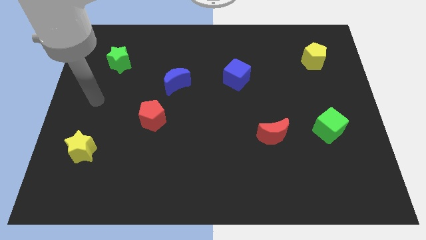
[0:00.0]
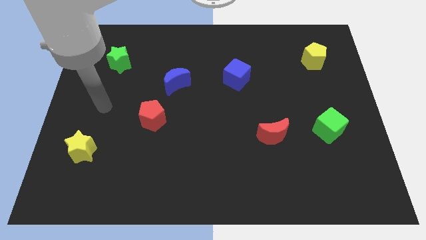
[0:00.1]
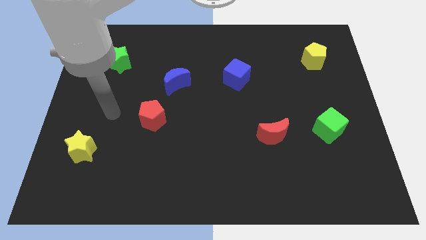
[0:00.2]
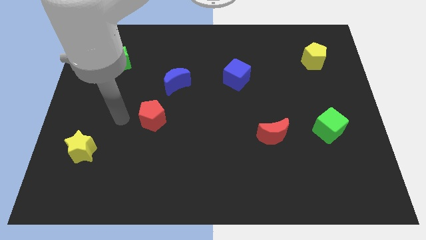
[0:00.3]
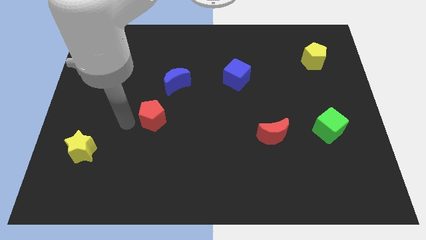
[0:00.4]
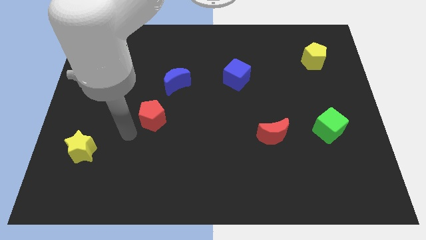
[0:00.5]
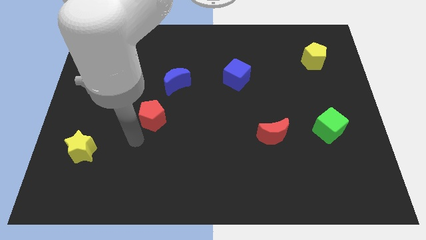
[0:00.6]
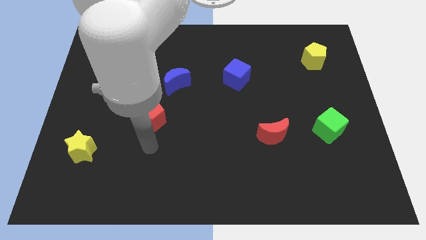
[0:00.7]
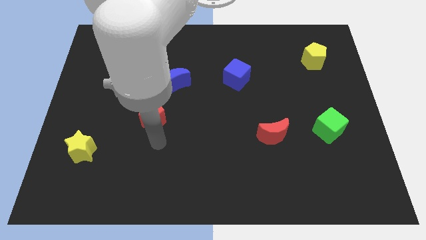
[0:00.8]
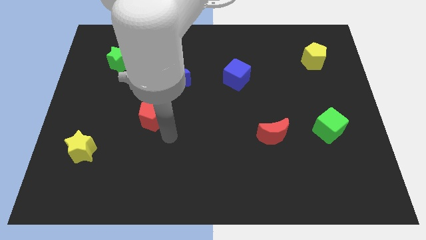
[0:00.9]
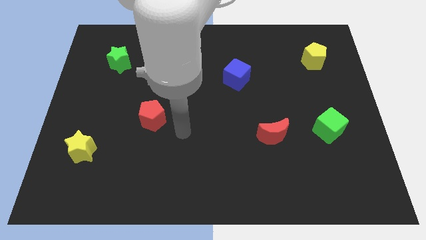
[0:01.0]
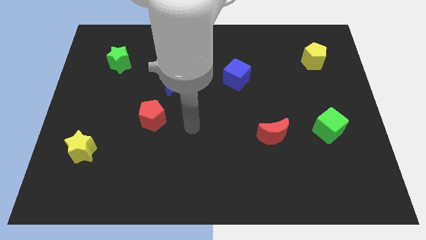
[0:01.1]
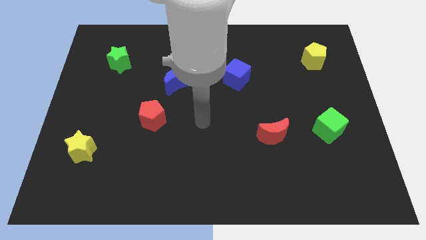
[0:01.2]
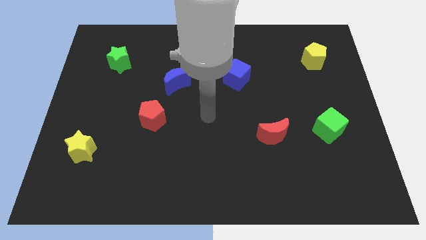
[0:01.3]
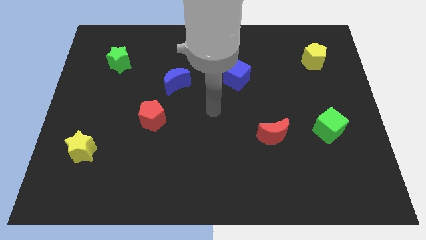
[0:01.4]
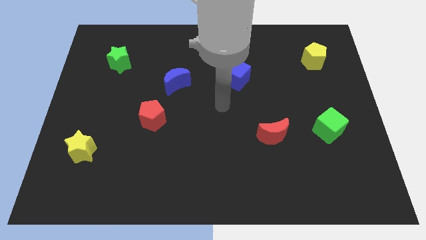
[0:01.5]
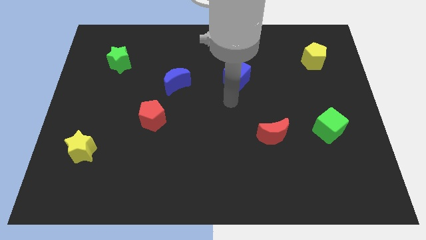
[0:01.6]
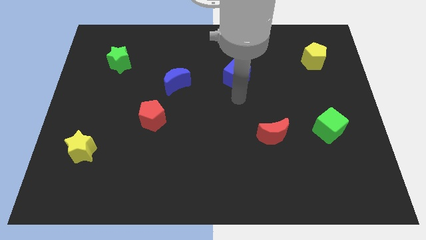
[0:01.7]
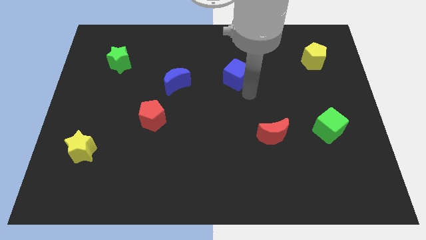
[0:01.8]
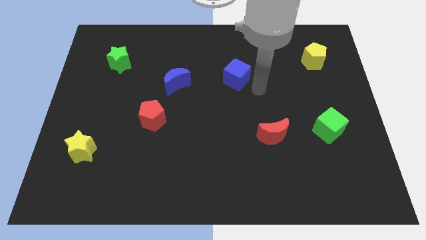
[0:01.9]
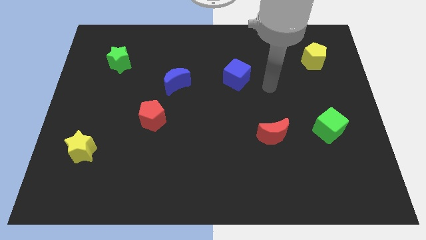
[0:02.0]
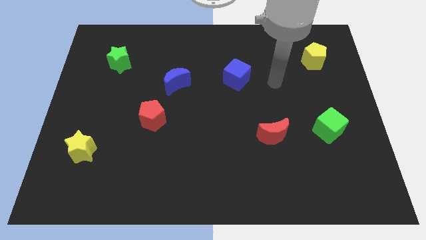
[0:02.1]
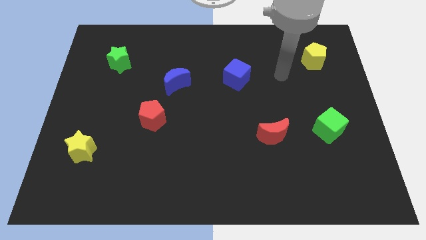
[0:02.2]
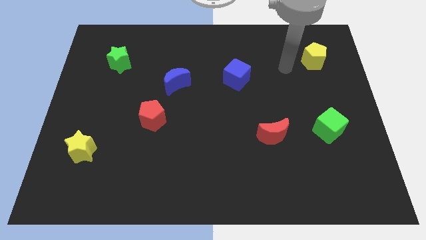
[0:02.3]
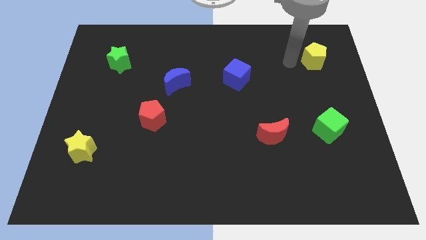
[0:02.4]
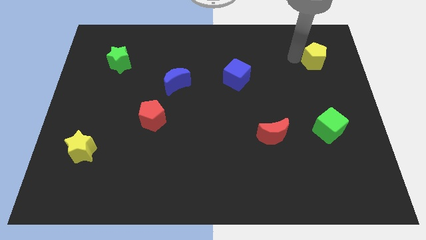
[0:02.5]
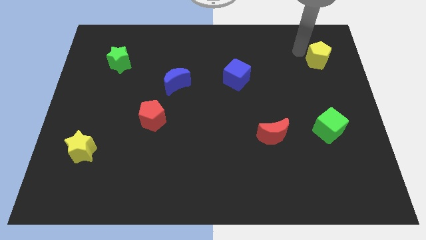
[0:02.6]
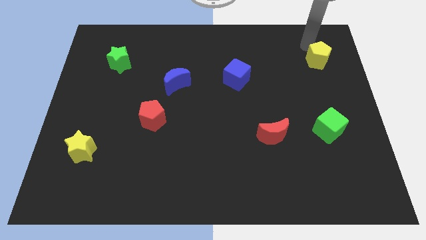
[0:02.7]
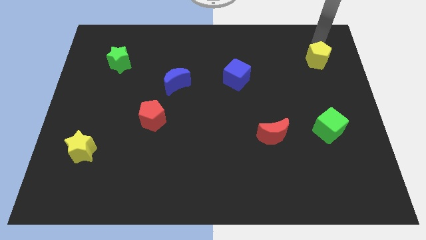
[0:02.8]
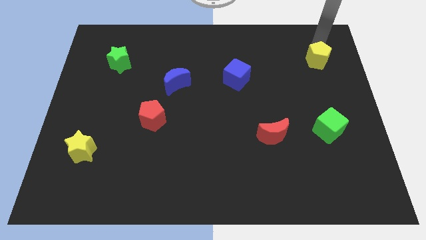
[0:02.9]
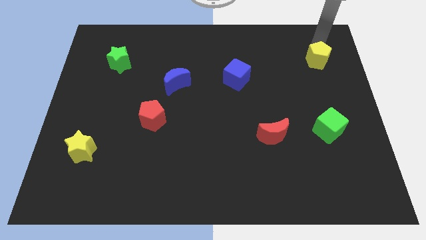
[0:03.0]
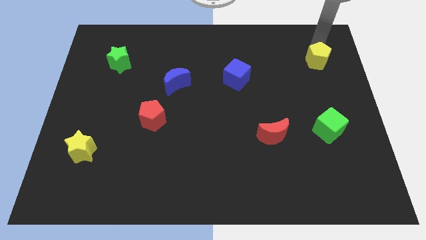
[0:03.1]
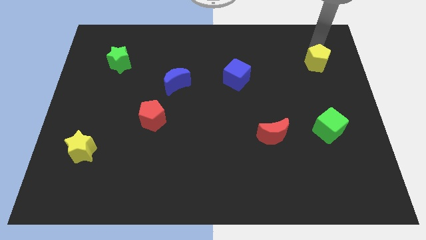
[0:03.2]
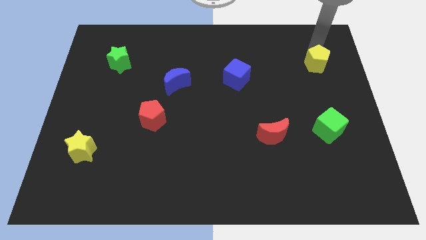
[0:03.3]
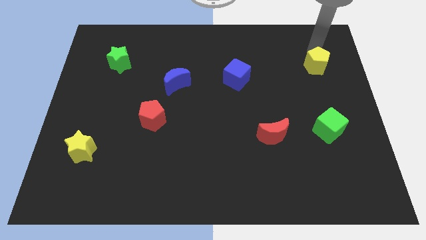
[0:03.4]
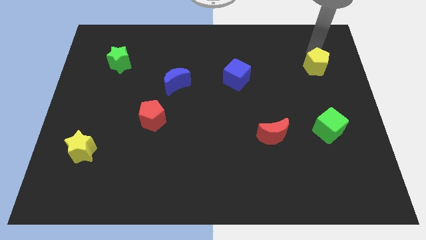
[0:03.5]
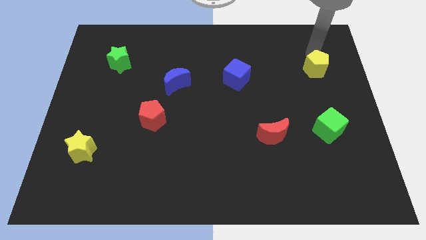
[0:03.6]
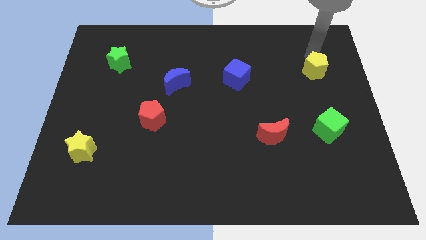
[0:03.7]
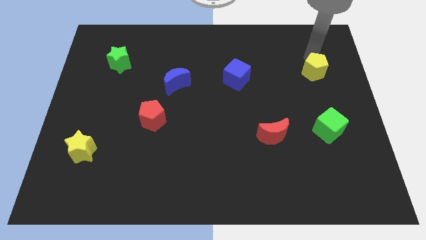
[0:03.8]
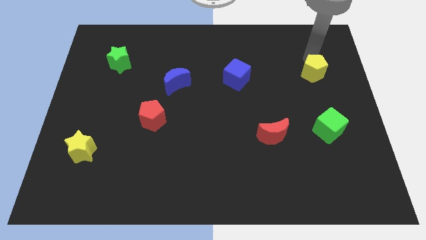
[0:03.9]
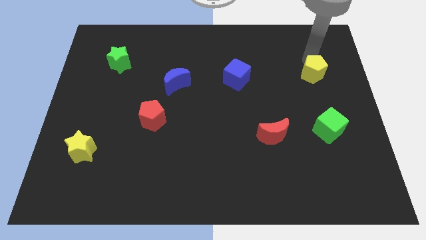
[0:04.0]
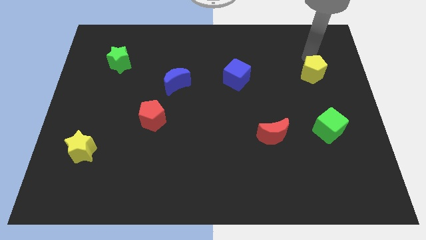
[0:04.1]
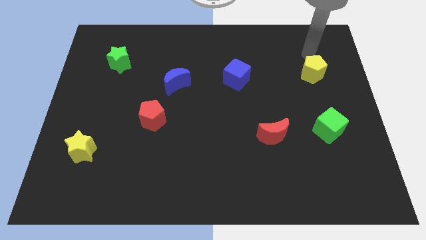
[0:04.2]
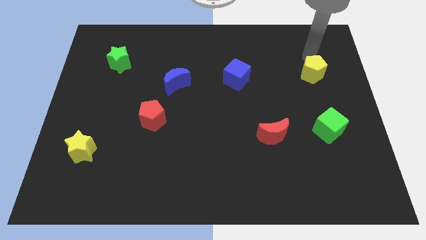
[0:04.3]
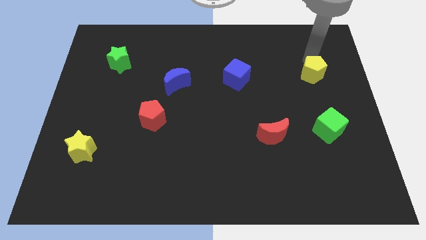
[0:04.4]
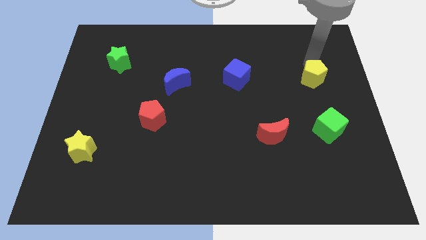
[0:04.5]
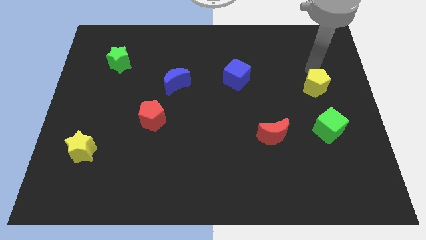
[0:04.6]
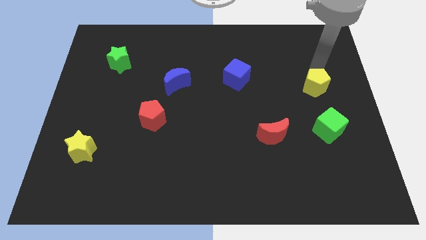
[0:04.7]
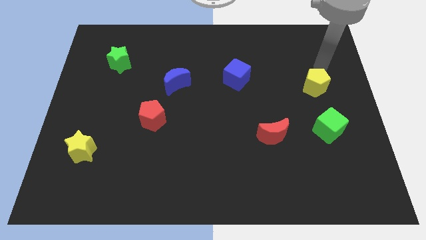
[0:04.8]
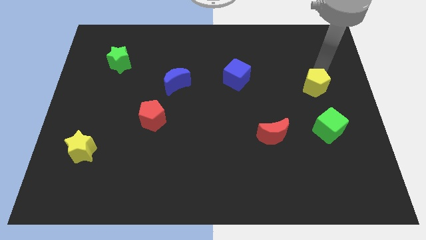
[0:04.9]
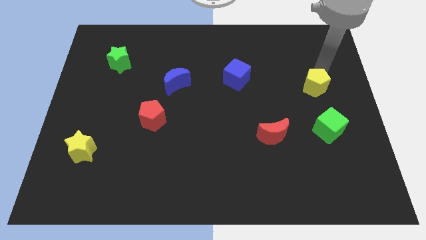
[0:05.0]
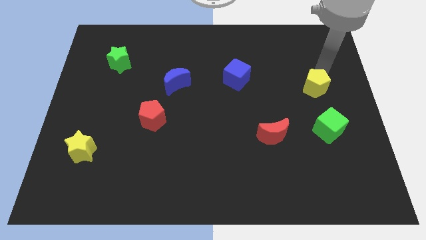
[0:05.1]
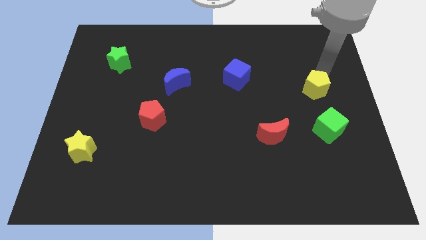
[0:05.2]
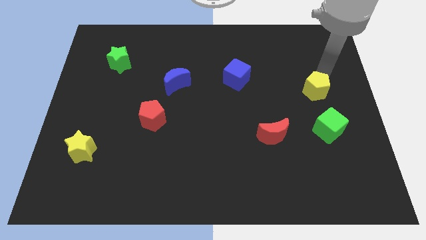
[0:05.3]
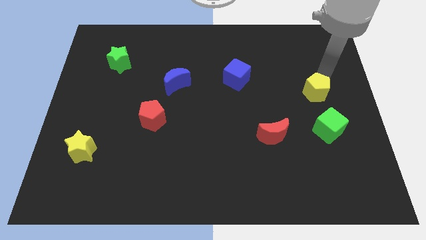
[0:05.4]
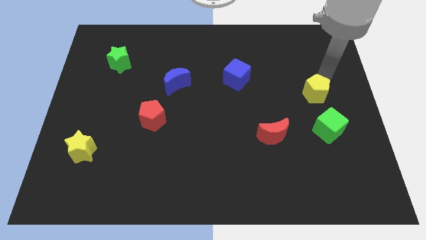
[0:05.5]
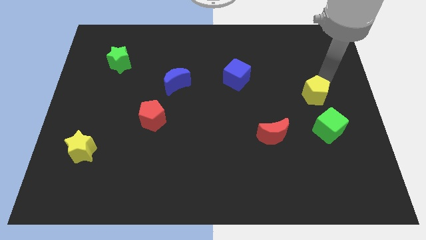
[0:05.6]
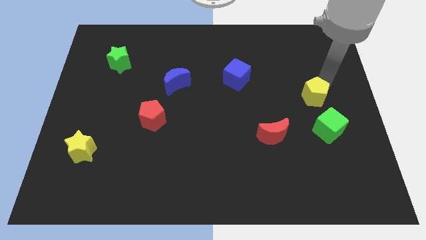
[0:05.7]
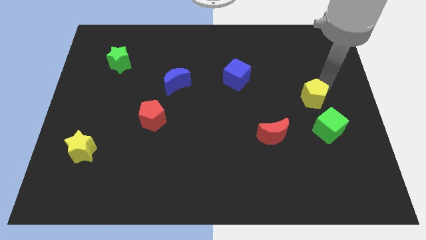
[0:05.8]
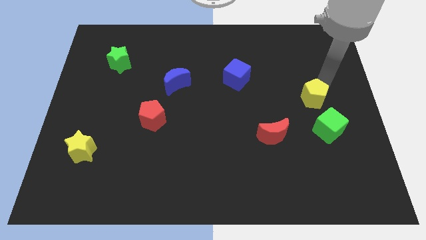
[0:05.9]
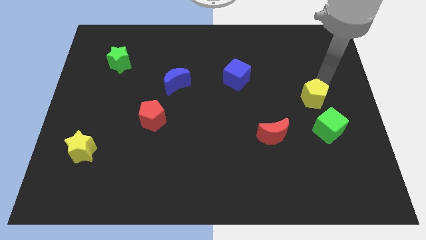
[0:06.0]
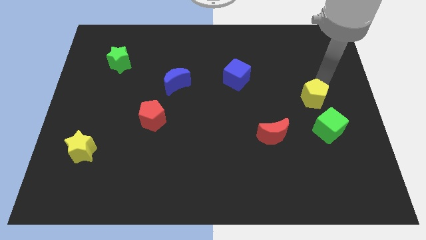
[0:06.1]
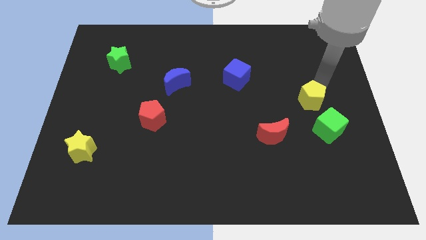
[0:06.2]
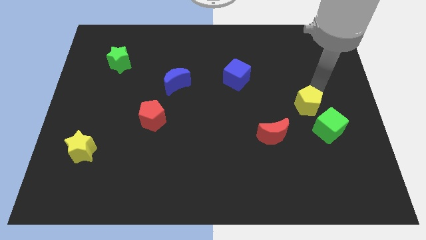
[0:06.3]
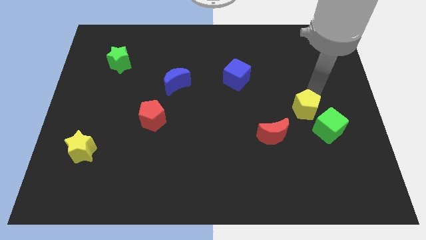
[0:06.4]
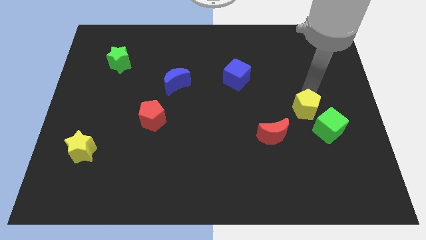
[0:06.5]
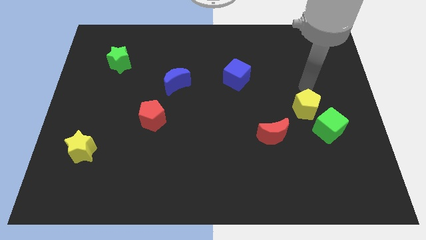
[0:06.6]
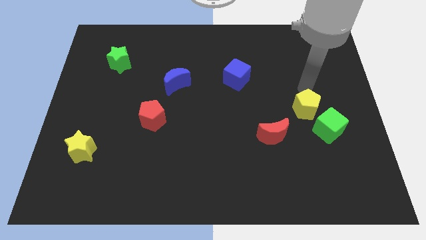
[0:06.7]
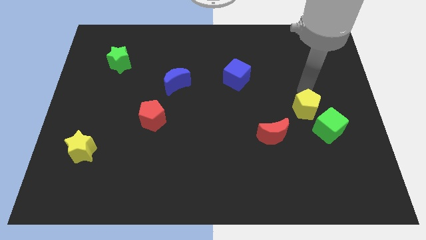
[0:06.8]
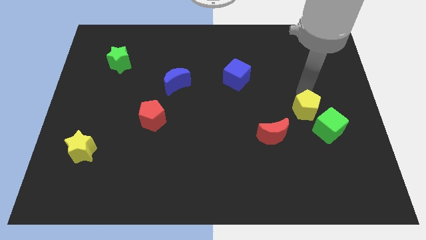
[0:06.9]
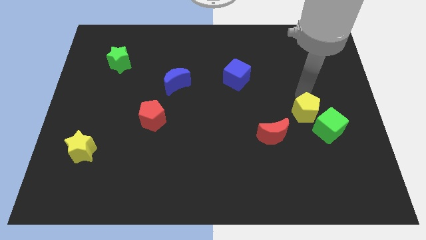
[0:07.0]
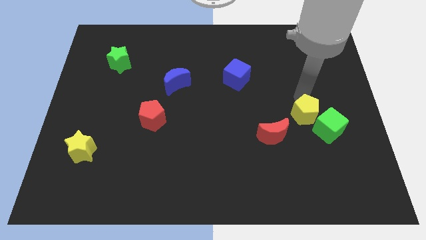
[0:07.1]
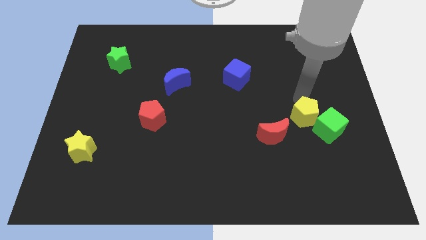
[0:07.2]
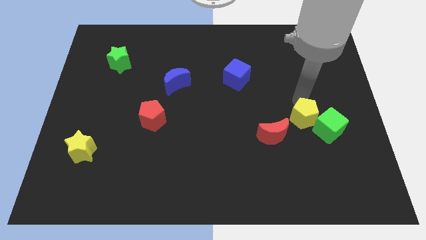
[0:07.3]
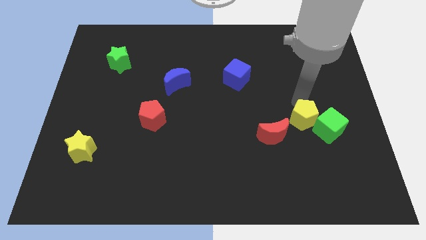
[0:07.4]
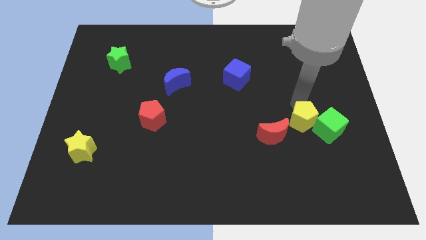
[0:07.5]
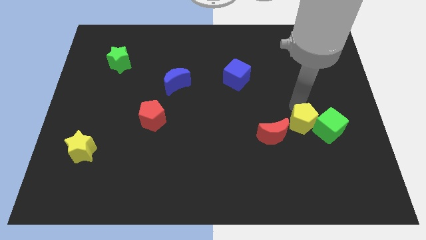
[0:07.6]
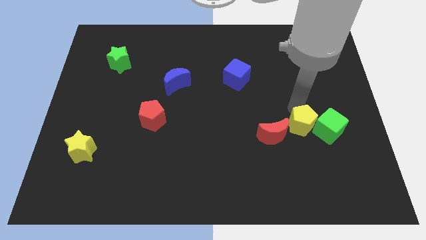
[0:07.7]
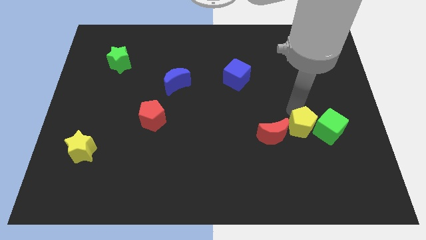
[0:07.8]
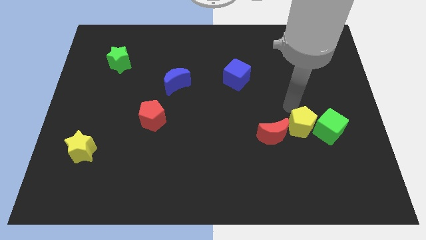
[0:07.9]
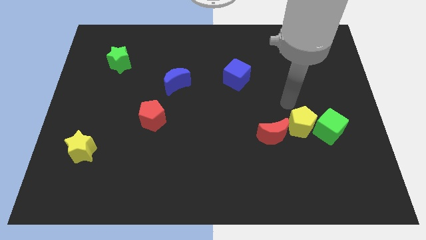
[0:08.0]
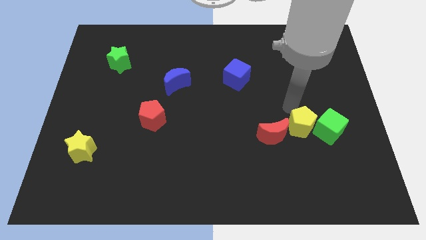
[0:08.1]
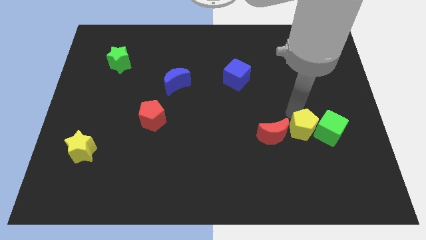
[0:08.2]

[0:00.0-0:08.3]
slide the yellow pentagon down
